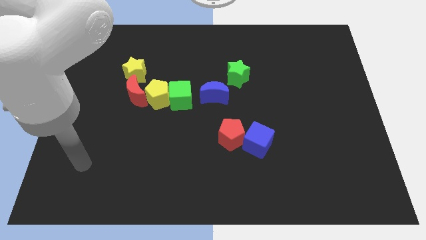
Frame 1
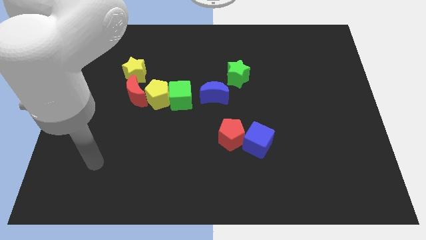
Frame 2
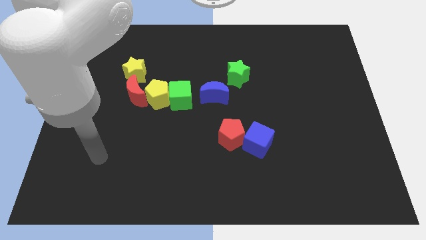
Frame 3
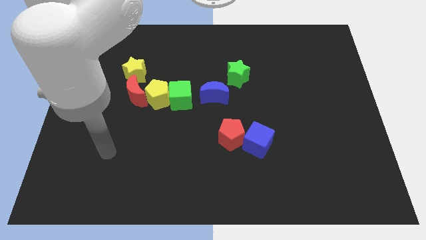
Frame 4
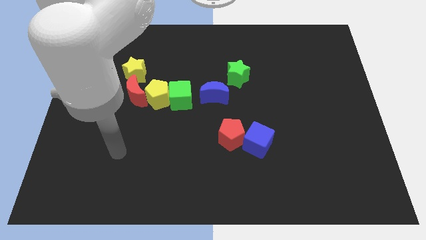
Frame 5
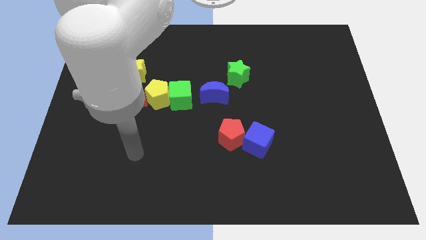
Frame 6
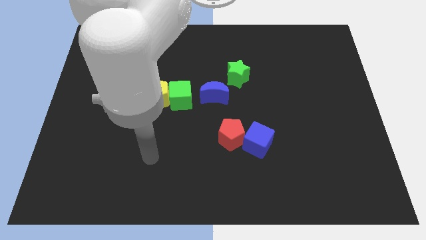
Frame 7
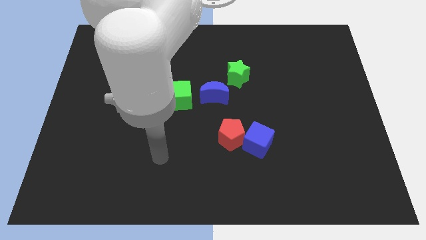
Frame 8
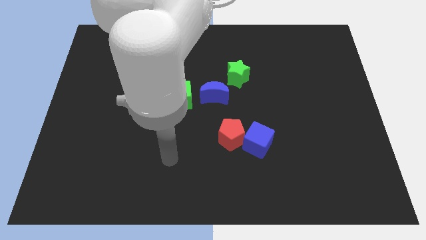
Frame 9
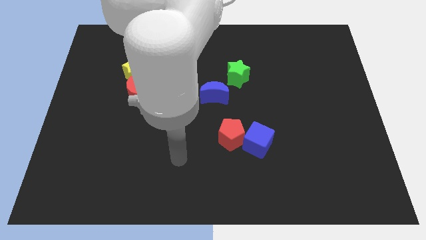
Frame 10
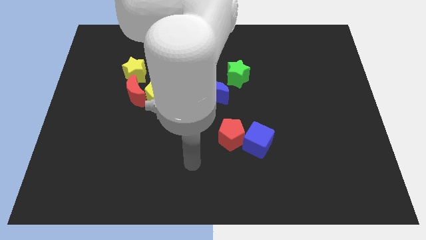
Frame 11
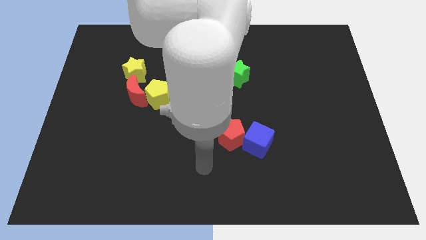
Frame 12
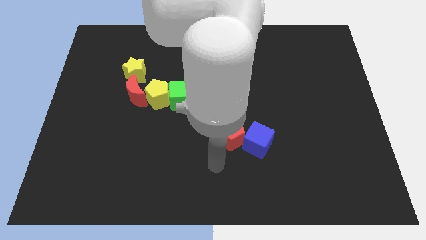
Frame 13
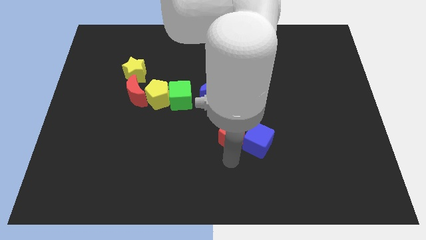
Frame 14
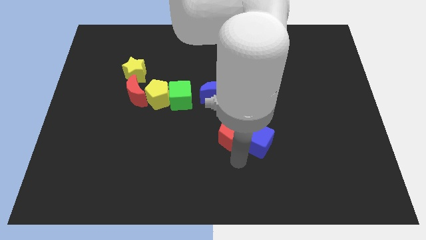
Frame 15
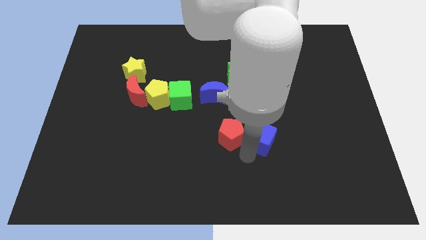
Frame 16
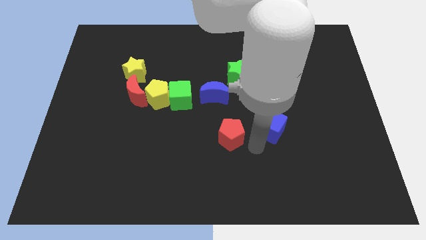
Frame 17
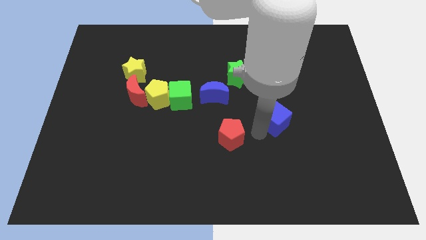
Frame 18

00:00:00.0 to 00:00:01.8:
move the red pentagon away from the blue cube

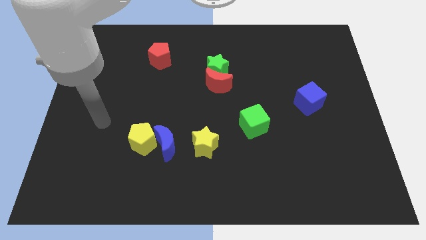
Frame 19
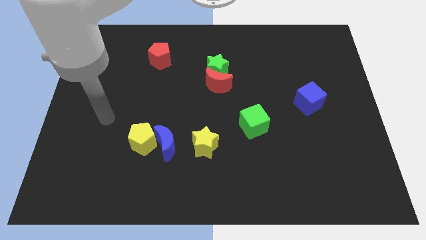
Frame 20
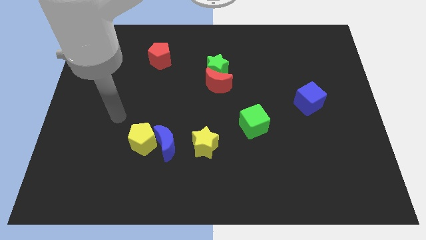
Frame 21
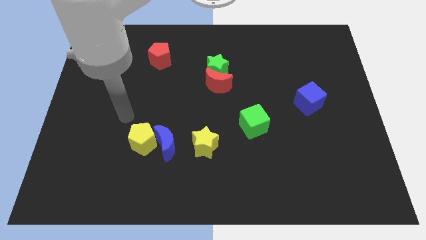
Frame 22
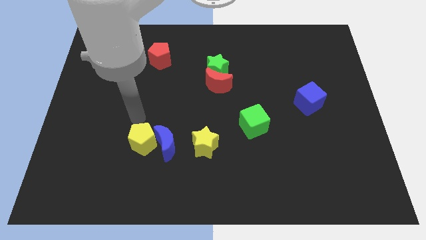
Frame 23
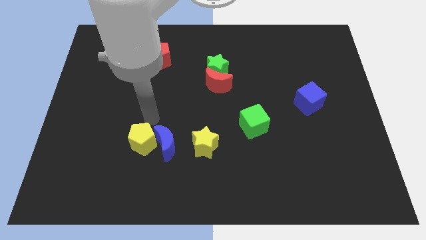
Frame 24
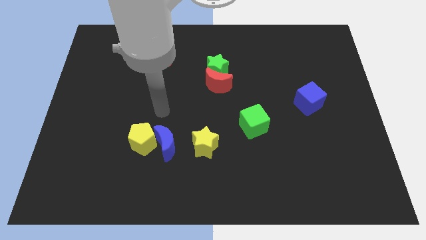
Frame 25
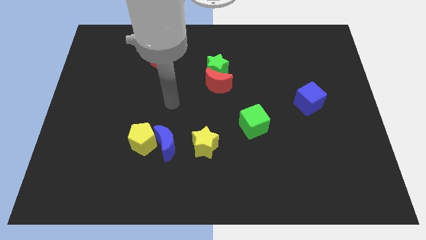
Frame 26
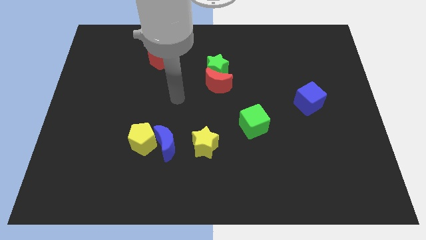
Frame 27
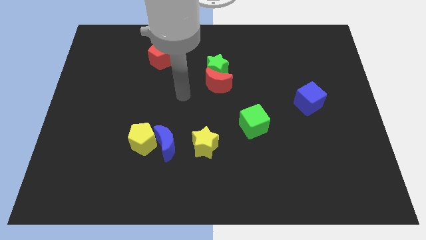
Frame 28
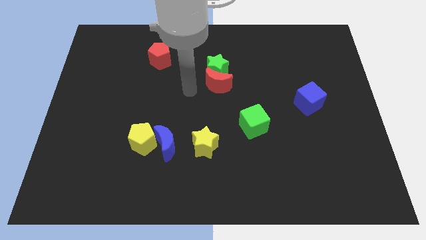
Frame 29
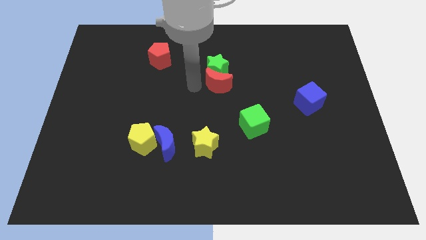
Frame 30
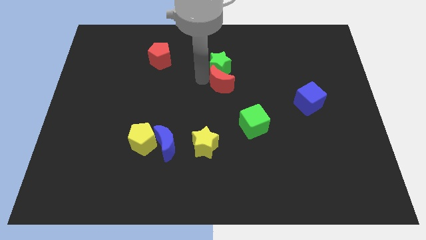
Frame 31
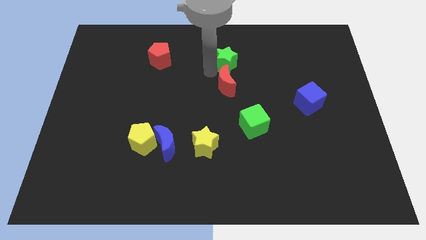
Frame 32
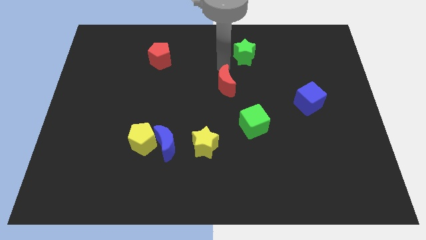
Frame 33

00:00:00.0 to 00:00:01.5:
move the red moon away from the green star

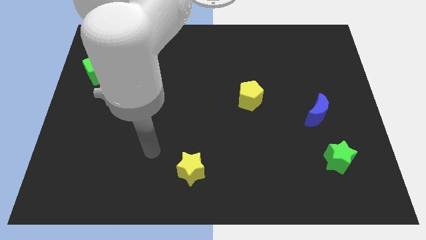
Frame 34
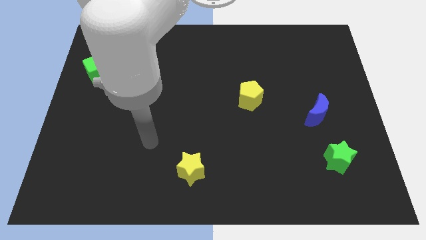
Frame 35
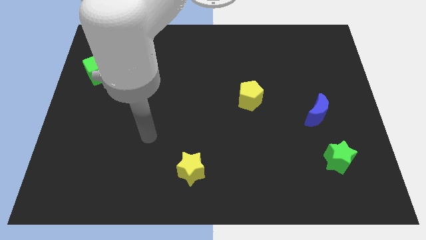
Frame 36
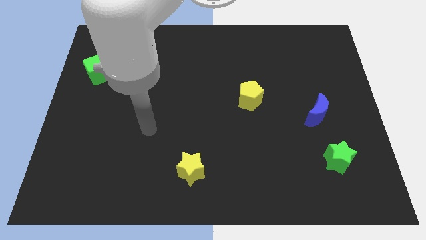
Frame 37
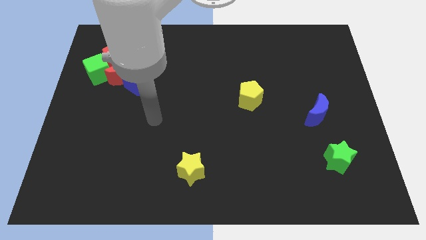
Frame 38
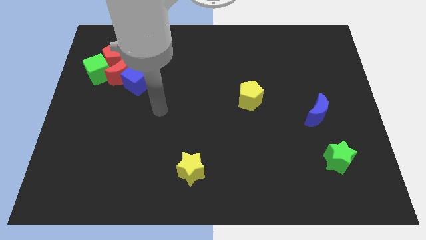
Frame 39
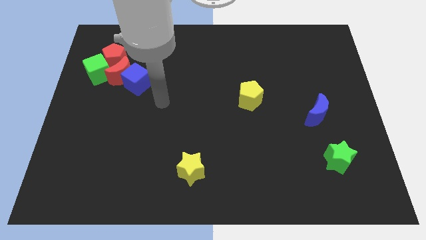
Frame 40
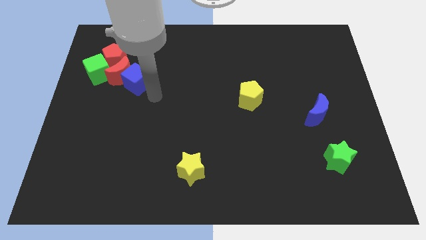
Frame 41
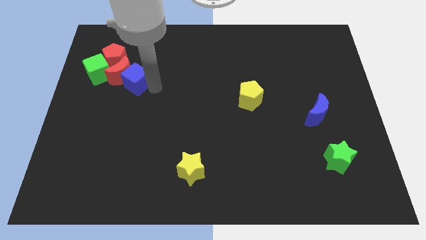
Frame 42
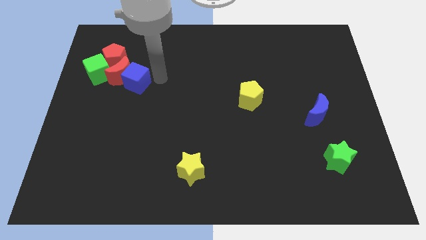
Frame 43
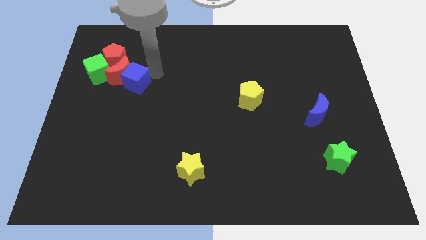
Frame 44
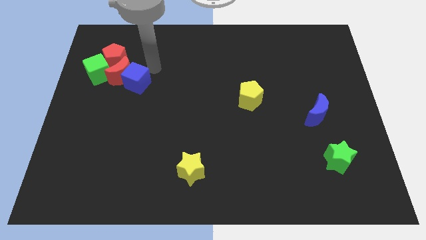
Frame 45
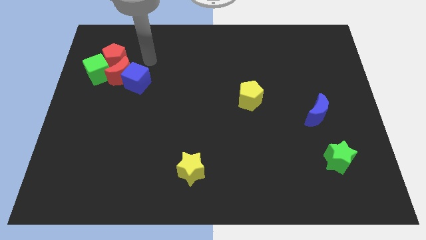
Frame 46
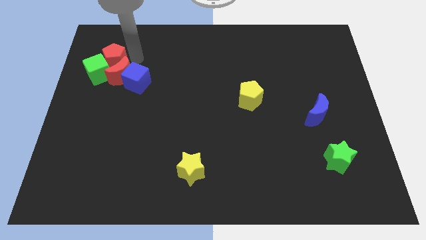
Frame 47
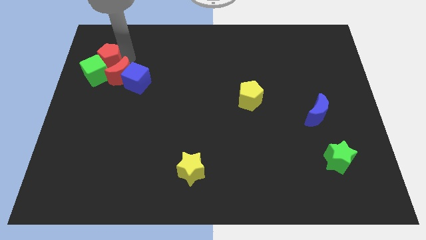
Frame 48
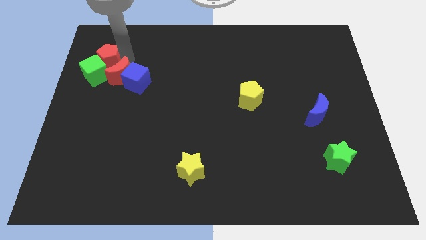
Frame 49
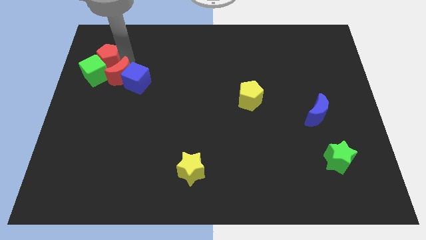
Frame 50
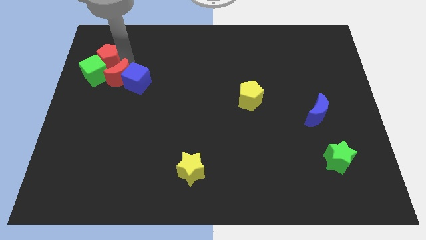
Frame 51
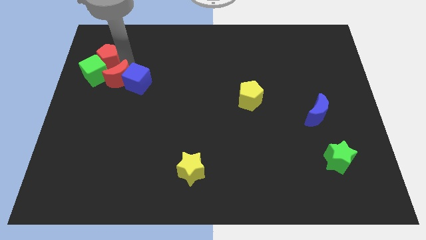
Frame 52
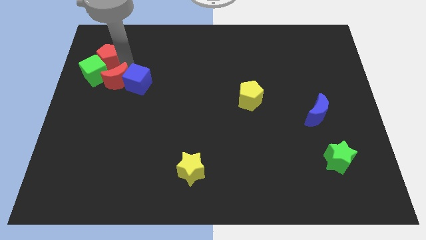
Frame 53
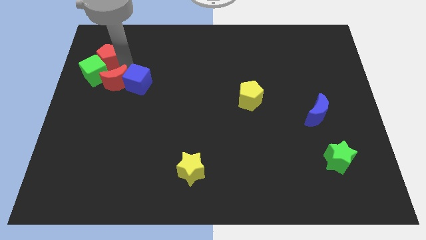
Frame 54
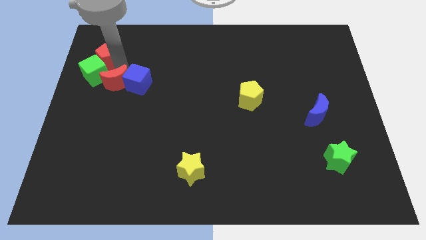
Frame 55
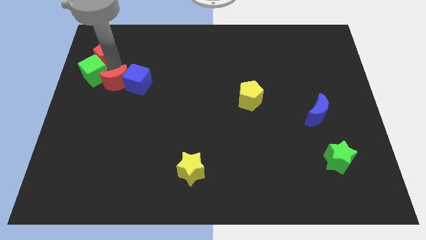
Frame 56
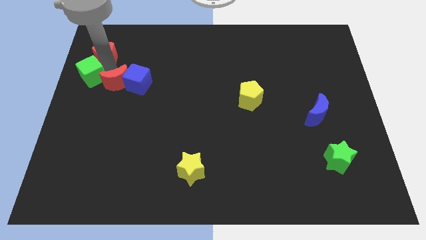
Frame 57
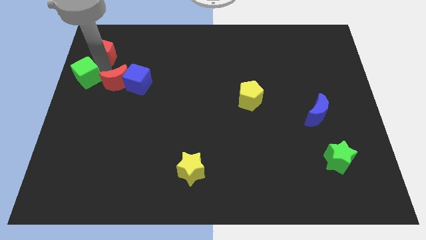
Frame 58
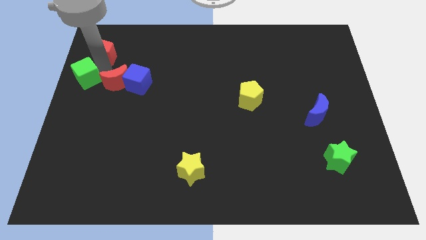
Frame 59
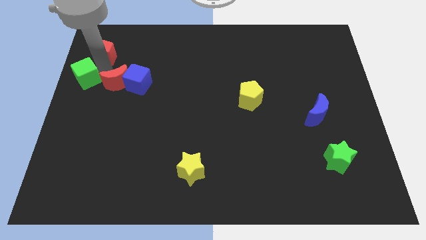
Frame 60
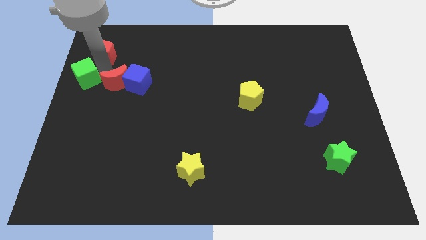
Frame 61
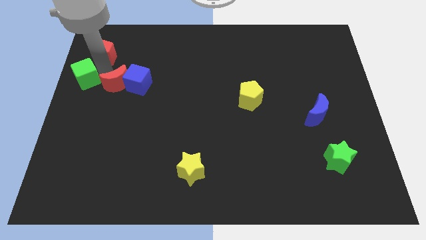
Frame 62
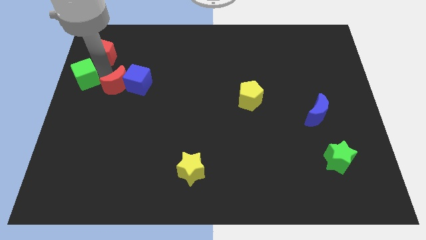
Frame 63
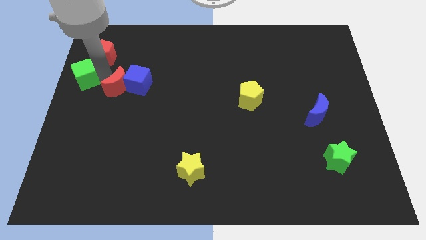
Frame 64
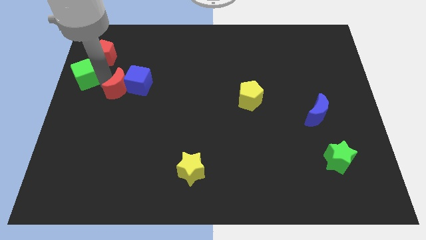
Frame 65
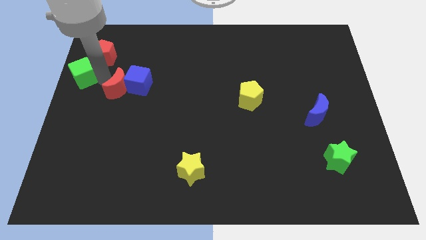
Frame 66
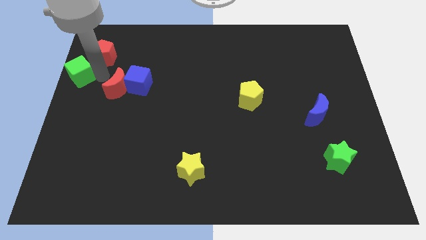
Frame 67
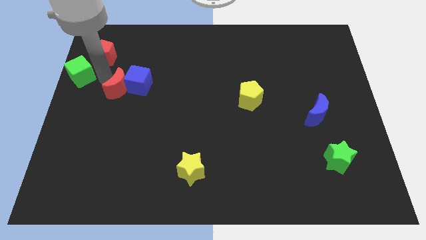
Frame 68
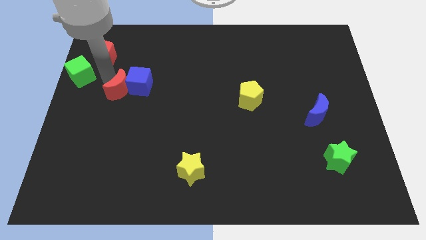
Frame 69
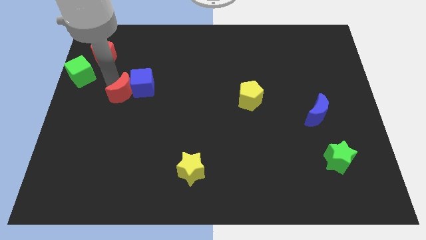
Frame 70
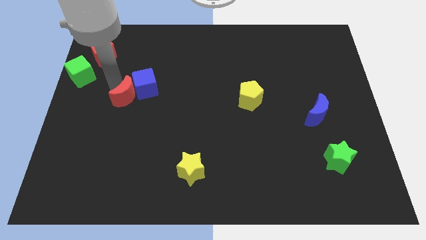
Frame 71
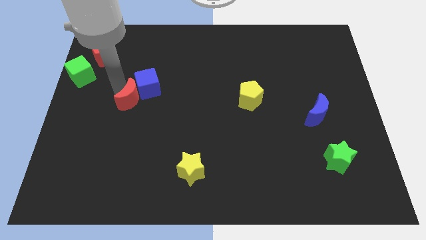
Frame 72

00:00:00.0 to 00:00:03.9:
separate the red moon from the blue cube, red pentagon, and green cube

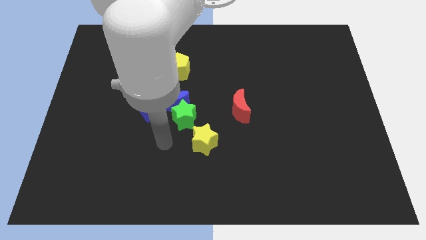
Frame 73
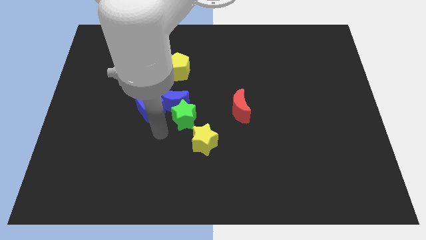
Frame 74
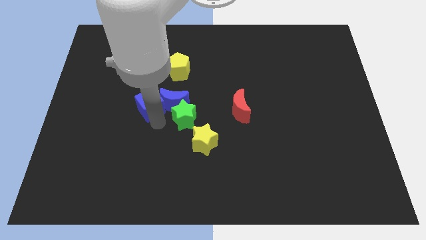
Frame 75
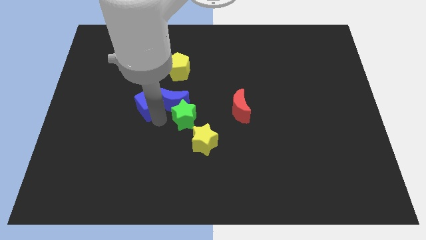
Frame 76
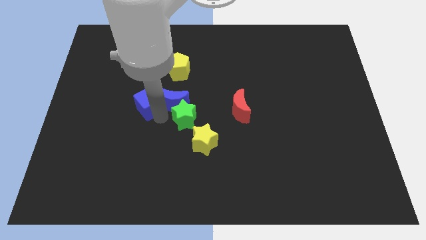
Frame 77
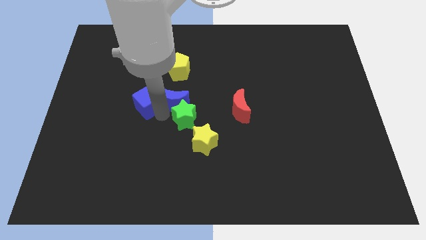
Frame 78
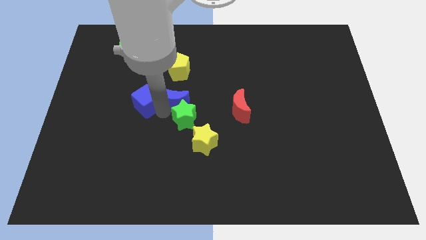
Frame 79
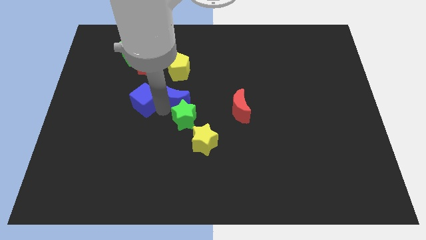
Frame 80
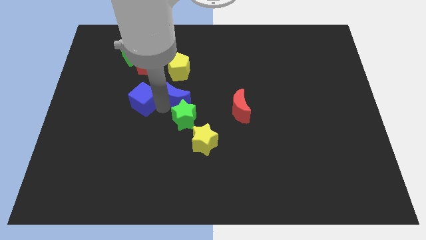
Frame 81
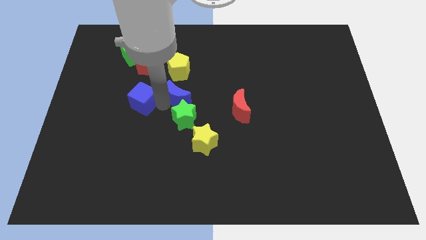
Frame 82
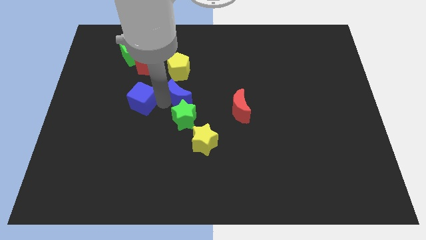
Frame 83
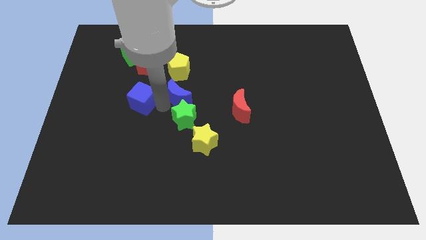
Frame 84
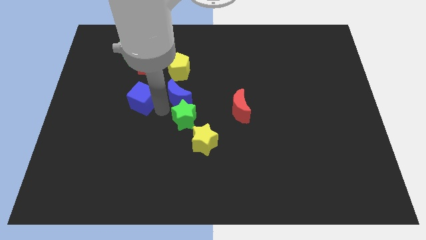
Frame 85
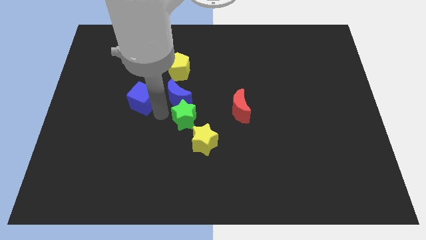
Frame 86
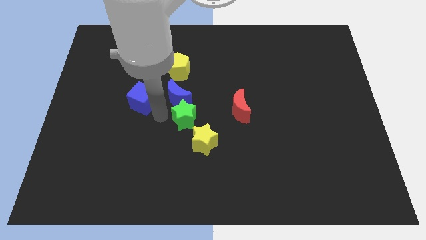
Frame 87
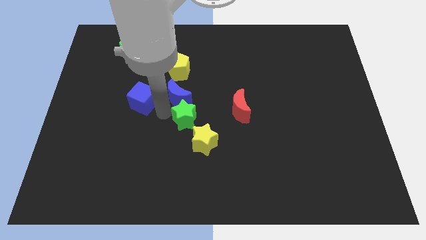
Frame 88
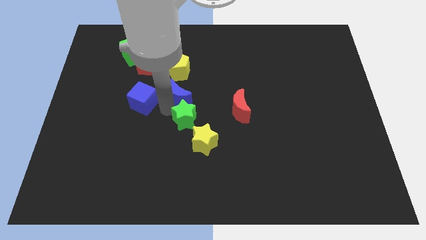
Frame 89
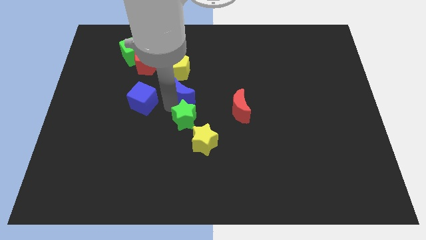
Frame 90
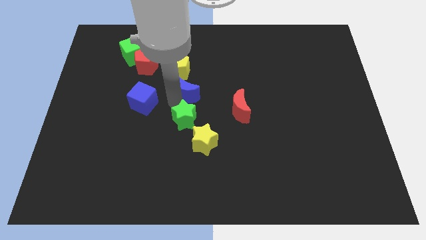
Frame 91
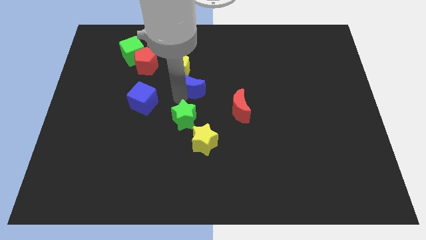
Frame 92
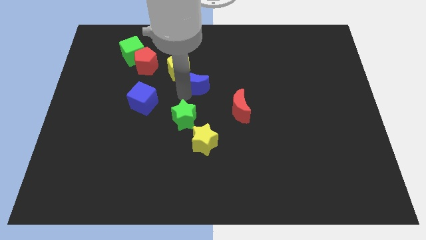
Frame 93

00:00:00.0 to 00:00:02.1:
move the blue moon away from the green star and blue cube

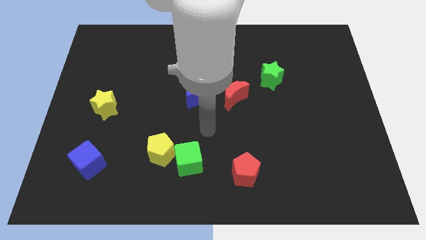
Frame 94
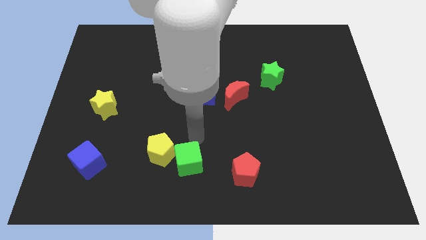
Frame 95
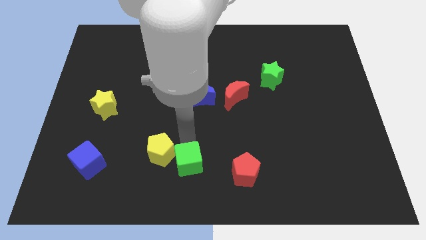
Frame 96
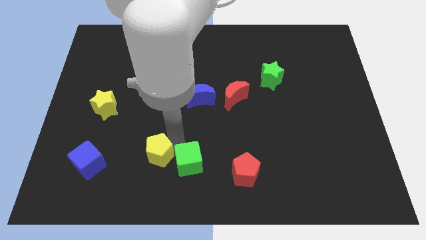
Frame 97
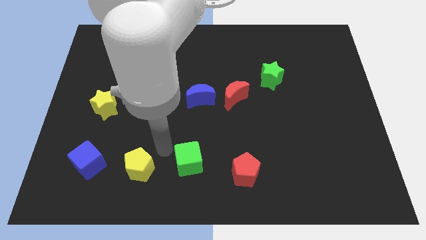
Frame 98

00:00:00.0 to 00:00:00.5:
pull the green cube apart from the yellow pentagon
